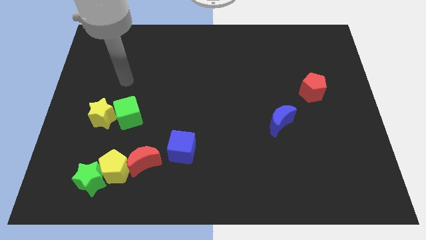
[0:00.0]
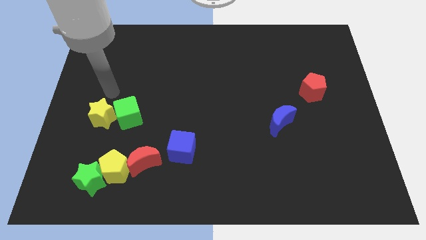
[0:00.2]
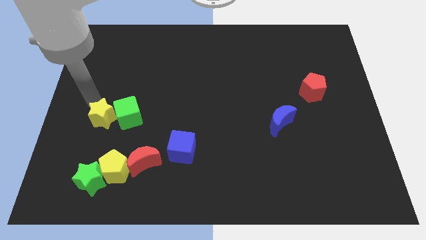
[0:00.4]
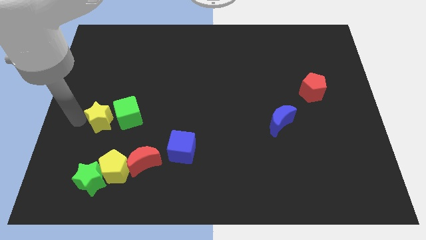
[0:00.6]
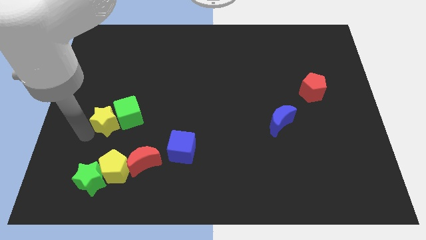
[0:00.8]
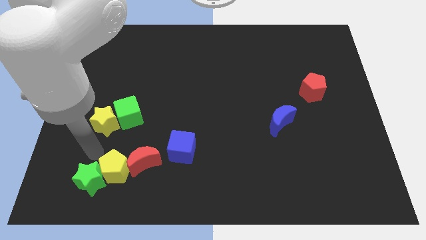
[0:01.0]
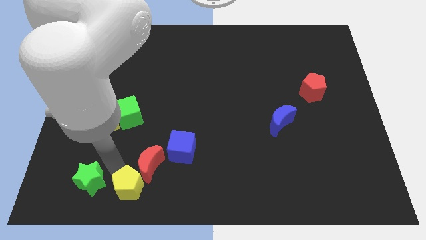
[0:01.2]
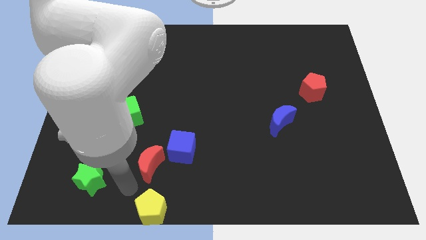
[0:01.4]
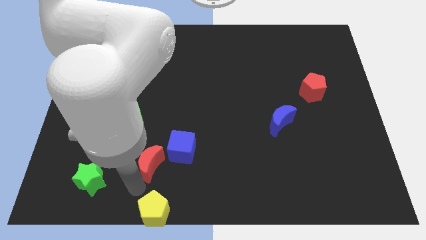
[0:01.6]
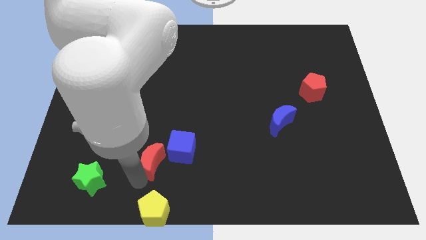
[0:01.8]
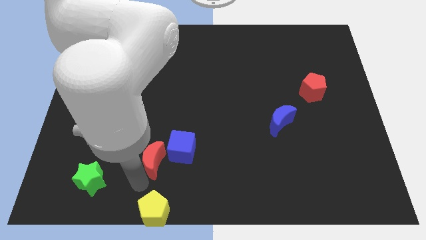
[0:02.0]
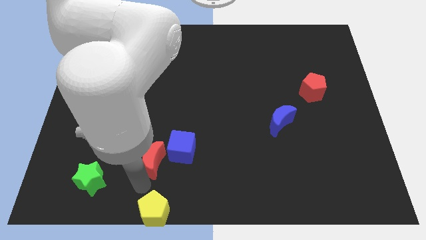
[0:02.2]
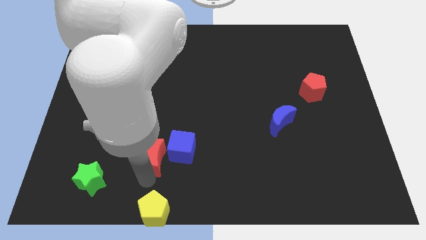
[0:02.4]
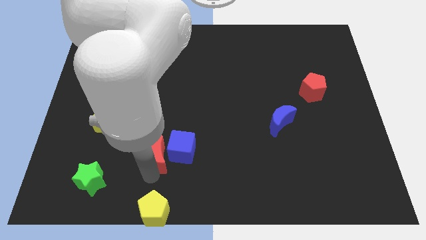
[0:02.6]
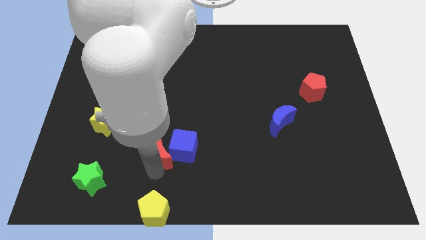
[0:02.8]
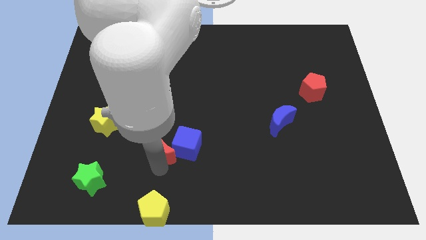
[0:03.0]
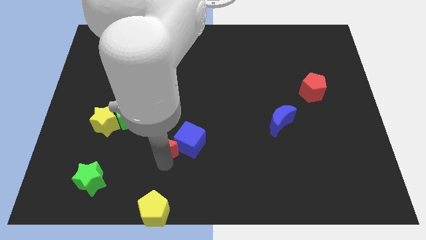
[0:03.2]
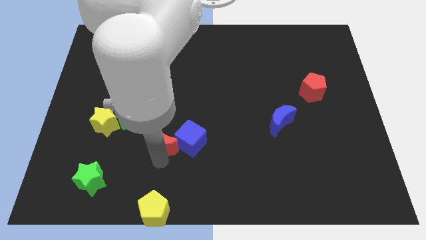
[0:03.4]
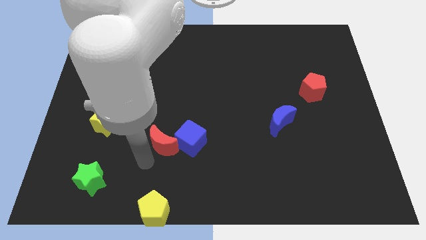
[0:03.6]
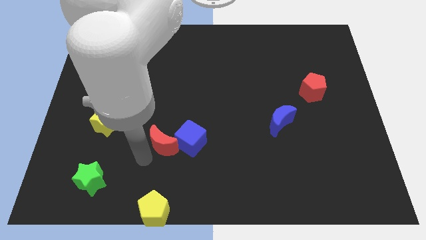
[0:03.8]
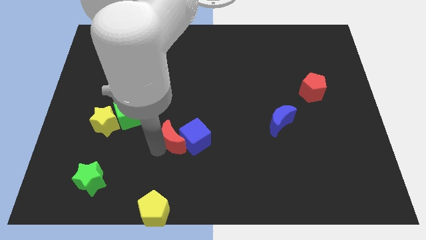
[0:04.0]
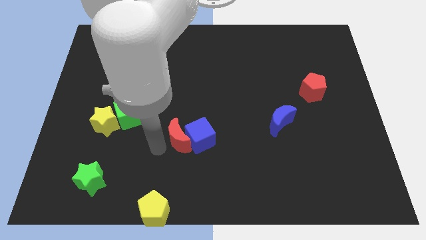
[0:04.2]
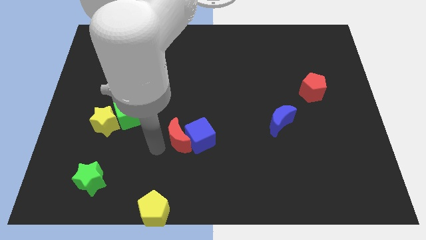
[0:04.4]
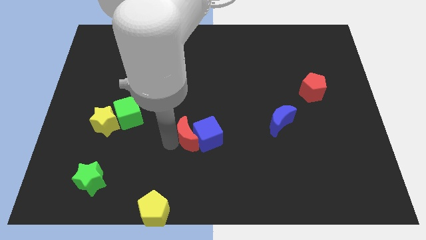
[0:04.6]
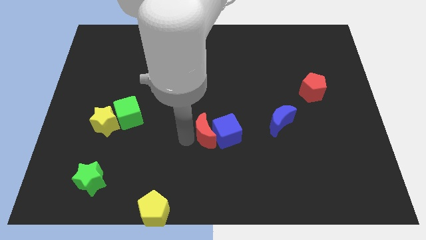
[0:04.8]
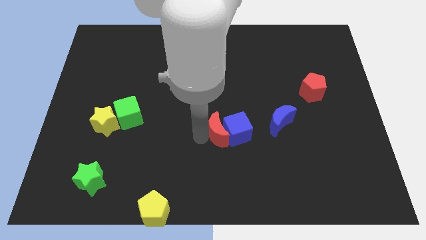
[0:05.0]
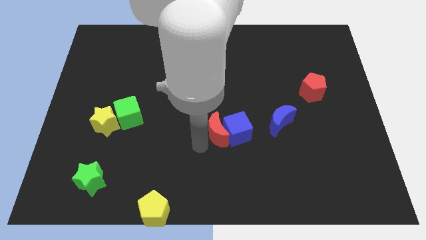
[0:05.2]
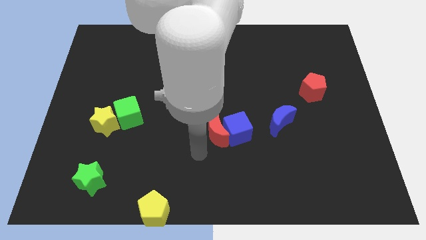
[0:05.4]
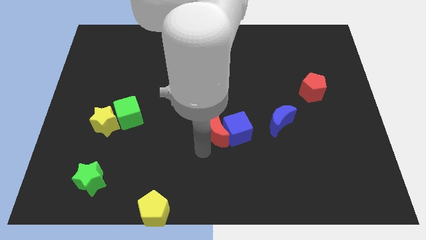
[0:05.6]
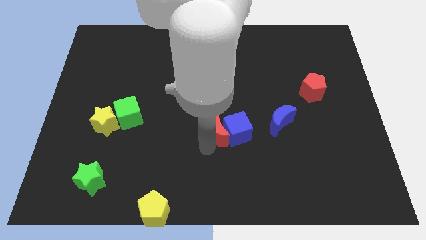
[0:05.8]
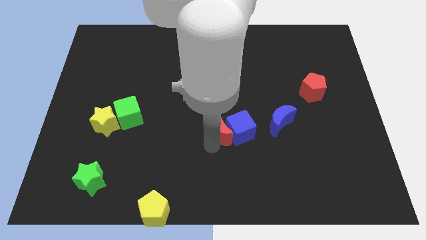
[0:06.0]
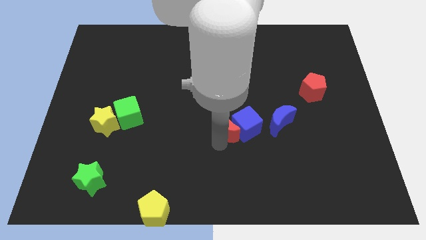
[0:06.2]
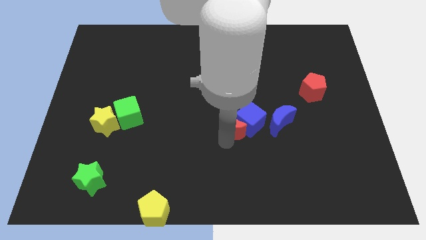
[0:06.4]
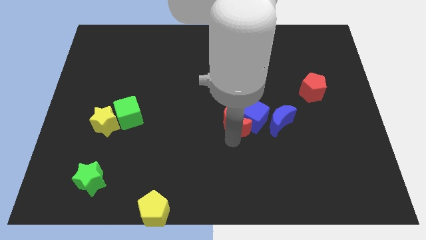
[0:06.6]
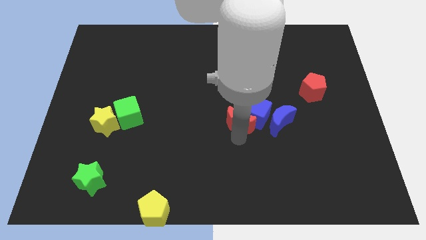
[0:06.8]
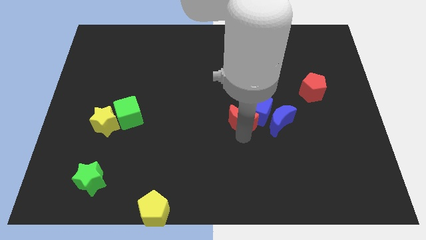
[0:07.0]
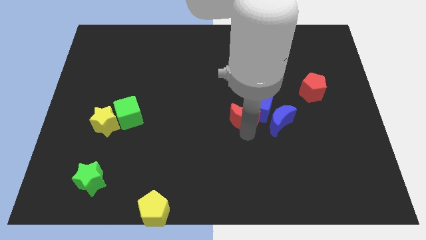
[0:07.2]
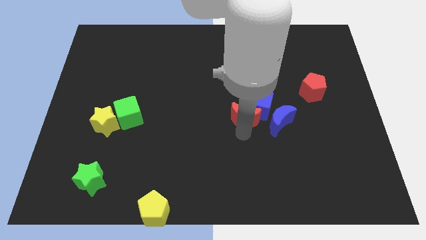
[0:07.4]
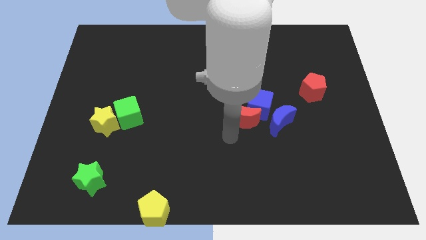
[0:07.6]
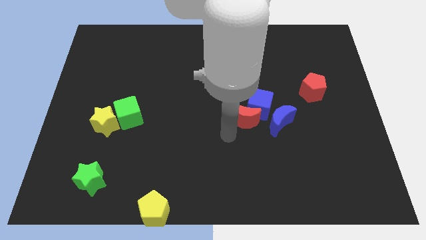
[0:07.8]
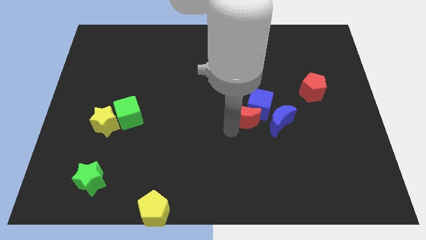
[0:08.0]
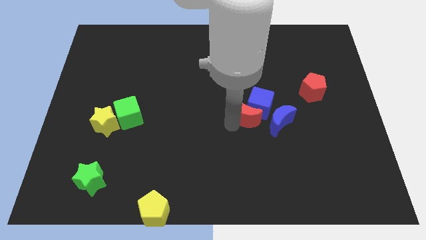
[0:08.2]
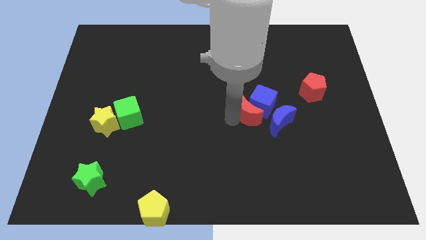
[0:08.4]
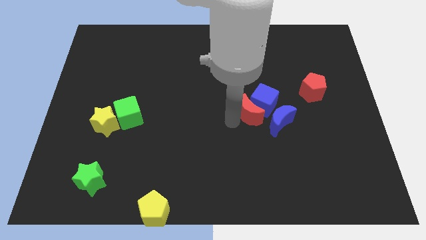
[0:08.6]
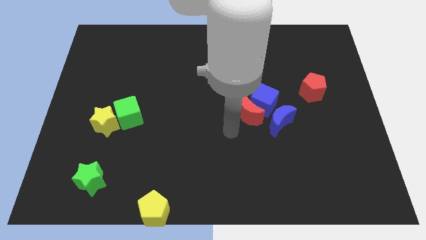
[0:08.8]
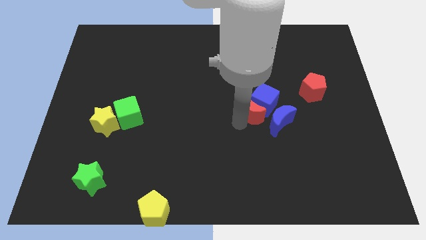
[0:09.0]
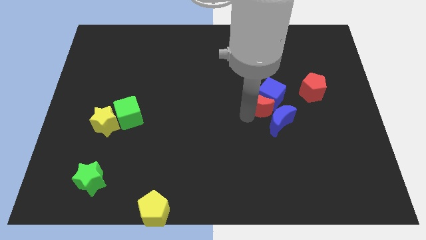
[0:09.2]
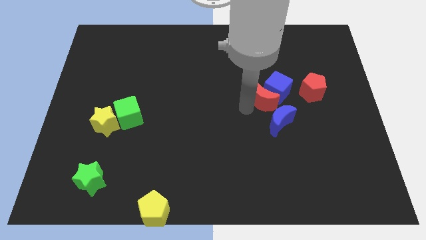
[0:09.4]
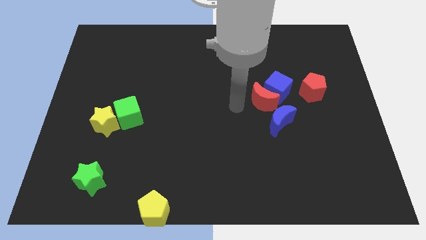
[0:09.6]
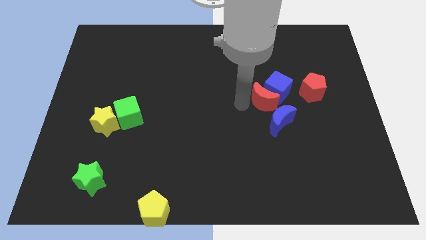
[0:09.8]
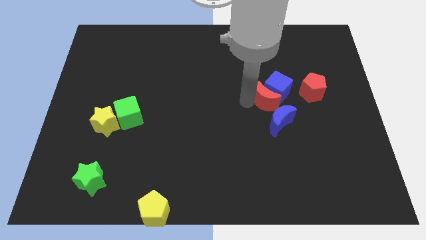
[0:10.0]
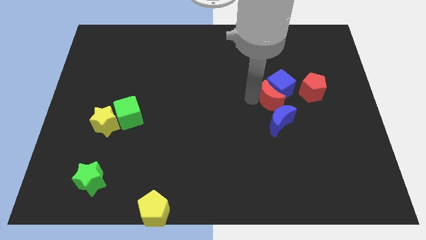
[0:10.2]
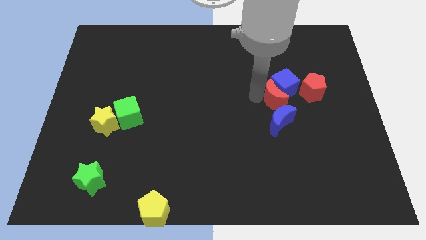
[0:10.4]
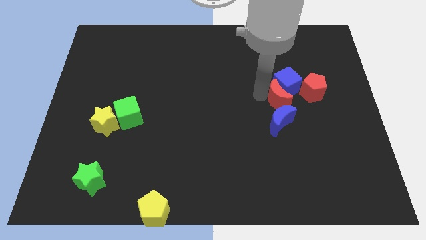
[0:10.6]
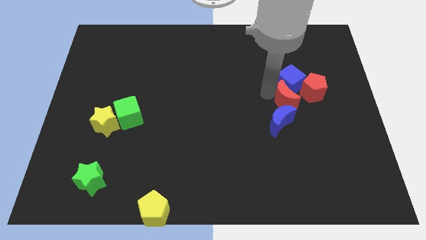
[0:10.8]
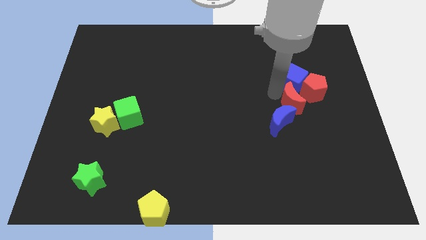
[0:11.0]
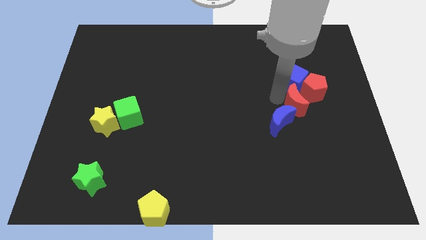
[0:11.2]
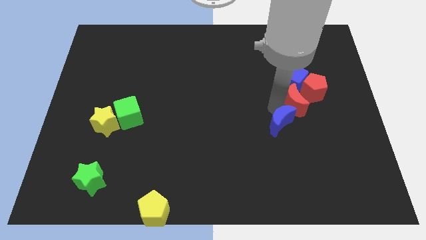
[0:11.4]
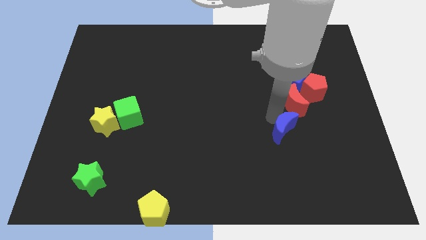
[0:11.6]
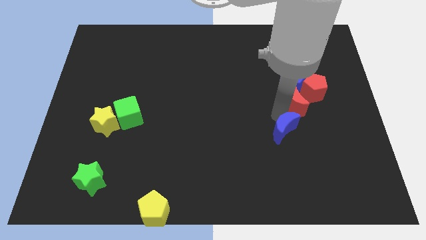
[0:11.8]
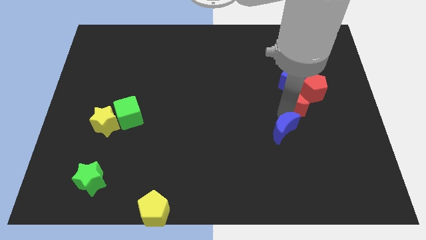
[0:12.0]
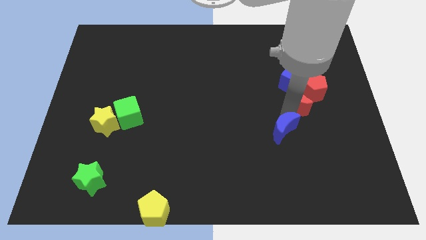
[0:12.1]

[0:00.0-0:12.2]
move the red moon next to the red pentagon
